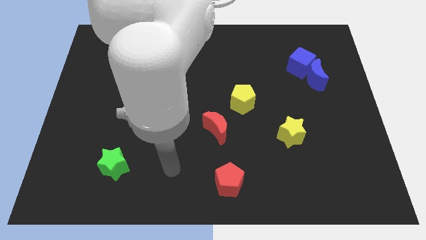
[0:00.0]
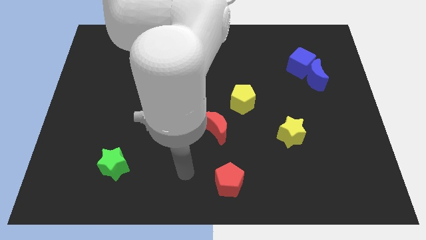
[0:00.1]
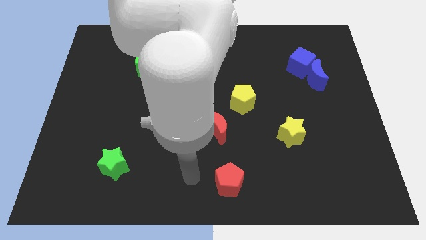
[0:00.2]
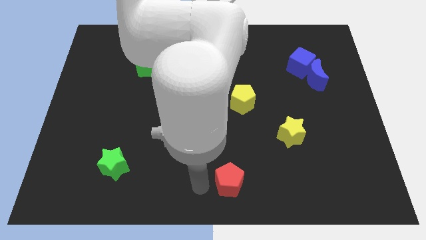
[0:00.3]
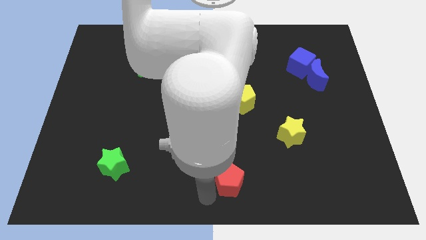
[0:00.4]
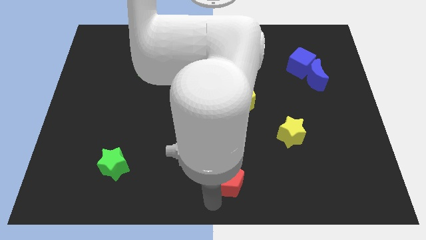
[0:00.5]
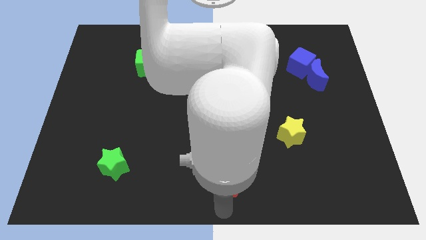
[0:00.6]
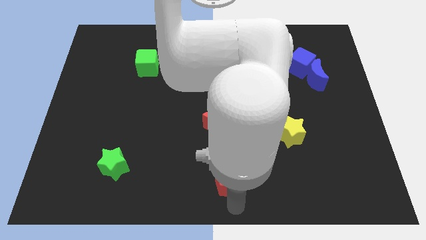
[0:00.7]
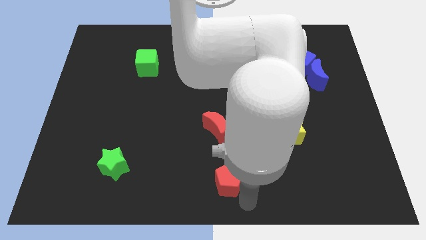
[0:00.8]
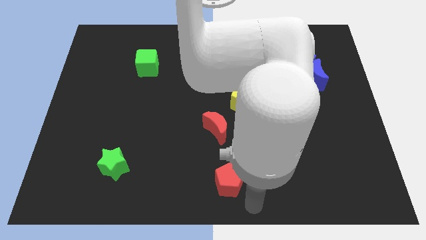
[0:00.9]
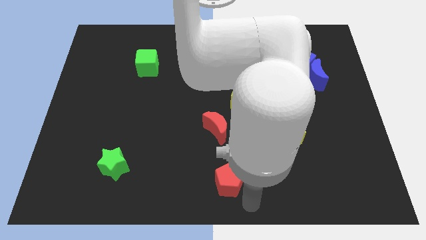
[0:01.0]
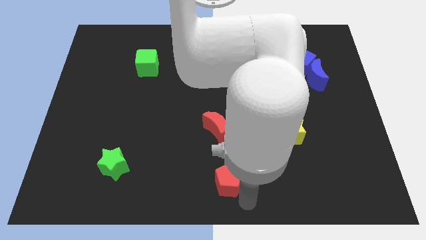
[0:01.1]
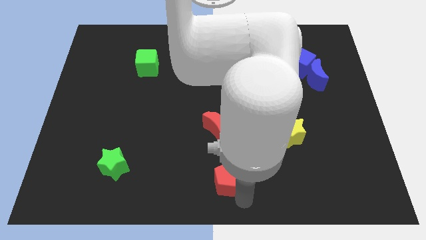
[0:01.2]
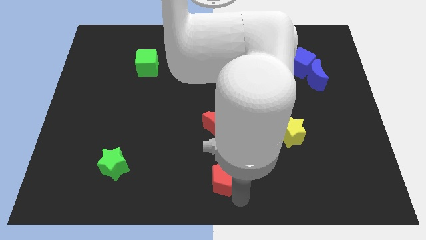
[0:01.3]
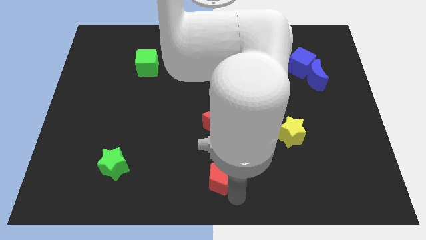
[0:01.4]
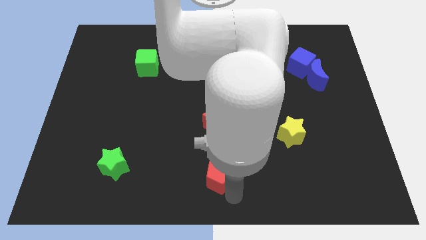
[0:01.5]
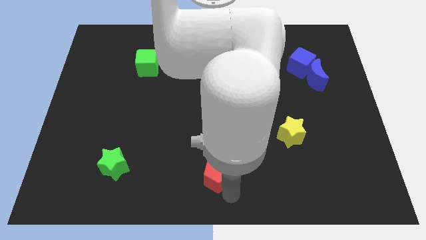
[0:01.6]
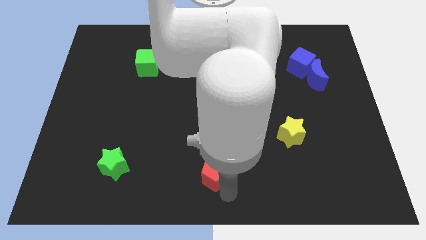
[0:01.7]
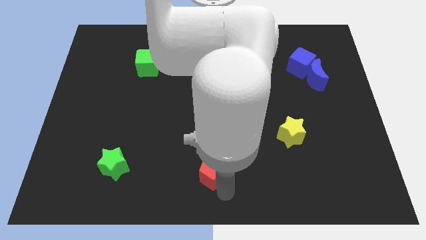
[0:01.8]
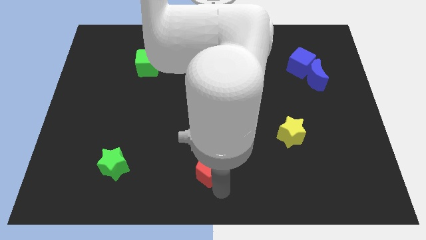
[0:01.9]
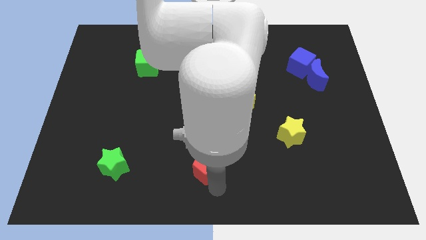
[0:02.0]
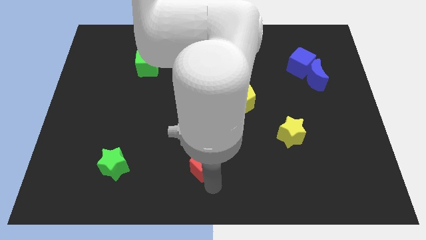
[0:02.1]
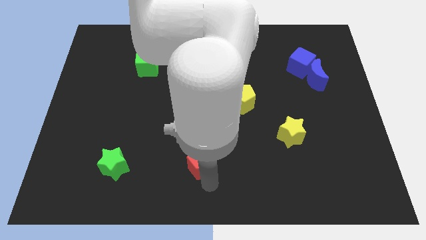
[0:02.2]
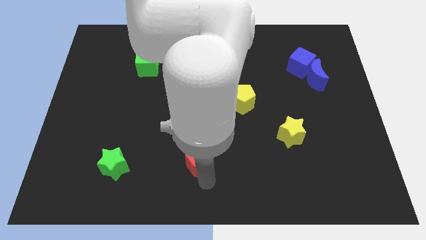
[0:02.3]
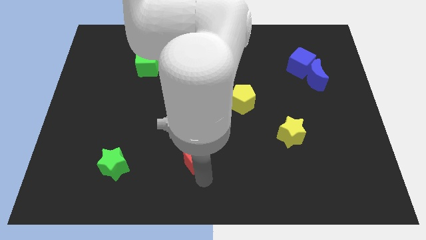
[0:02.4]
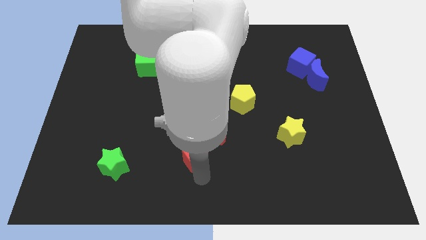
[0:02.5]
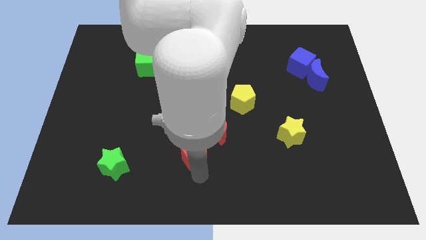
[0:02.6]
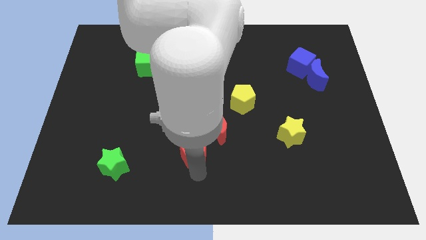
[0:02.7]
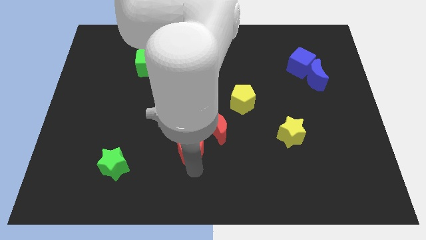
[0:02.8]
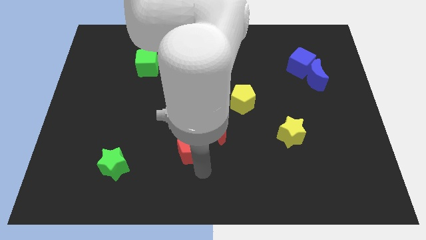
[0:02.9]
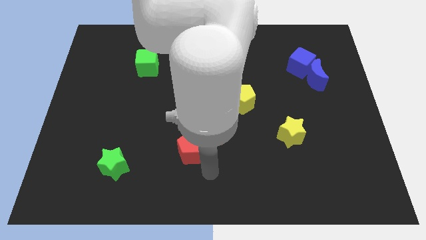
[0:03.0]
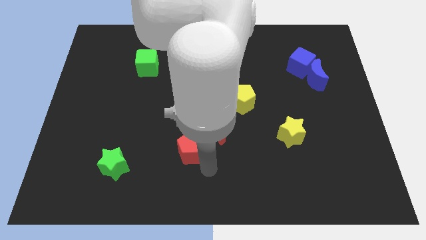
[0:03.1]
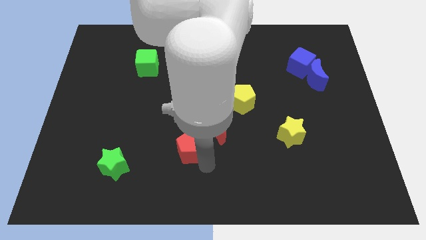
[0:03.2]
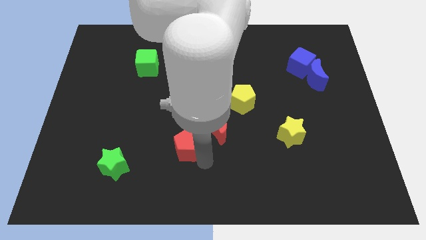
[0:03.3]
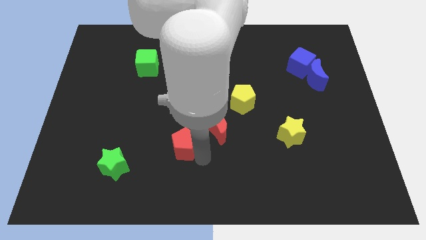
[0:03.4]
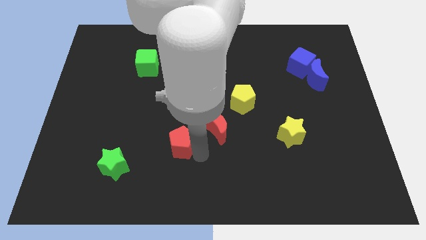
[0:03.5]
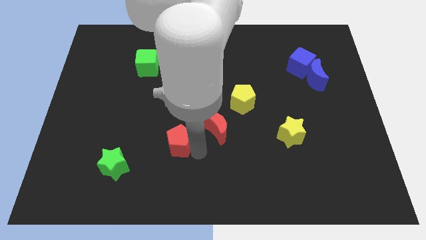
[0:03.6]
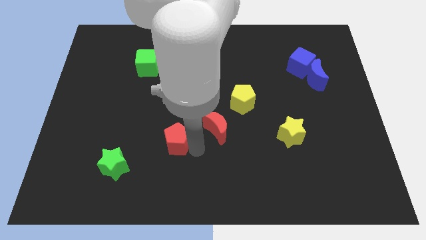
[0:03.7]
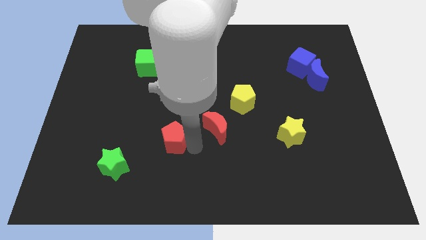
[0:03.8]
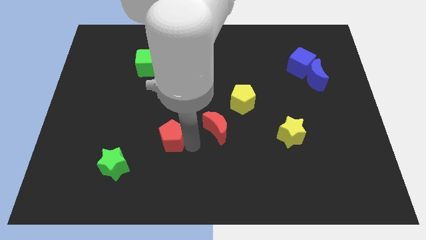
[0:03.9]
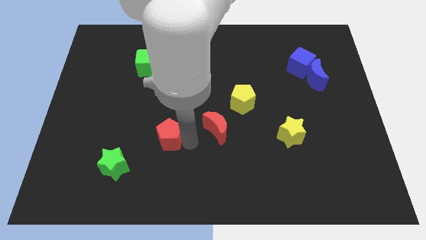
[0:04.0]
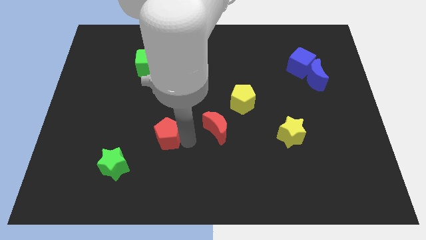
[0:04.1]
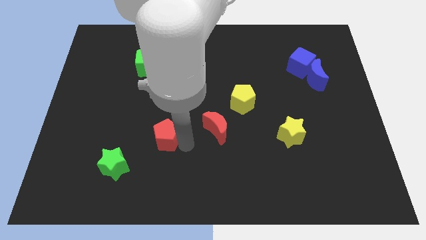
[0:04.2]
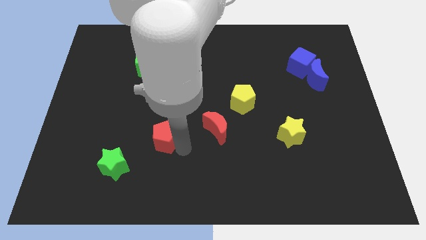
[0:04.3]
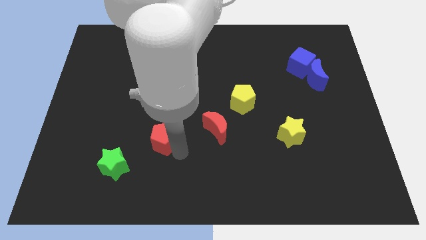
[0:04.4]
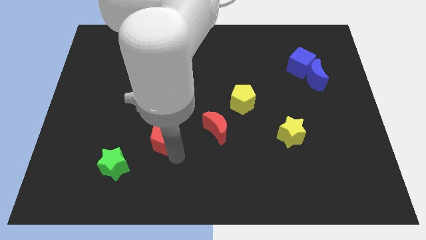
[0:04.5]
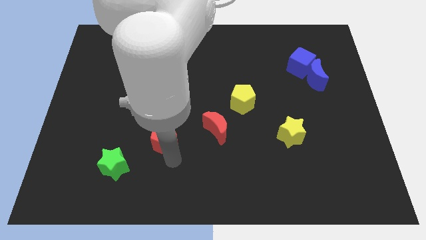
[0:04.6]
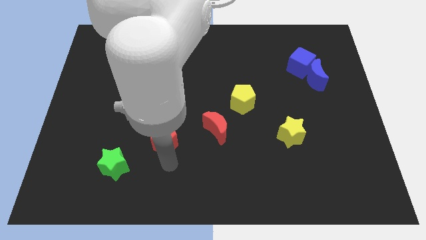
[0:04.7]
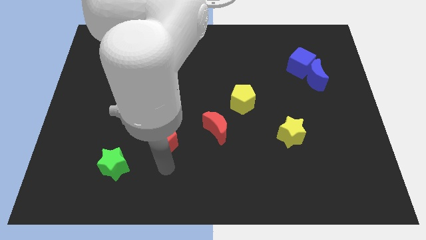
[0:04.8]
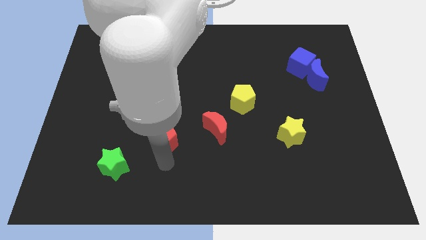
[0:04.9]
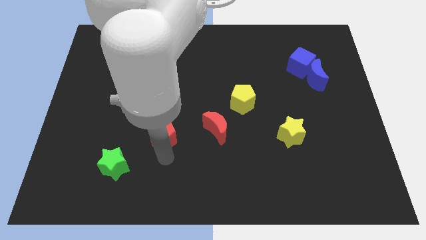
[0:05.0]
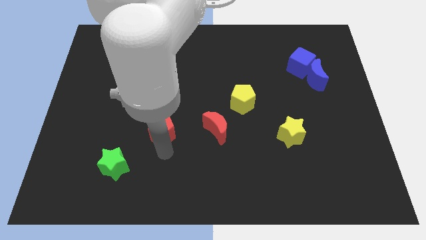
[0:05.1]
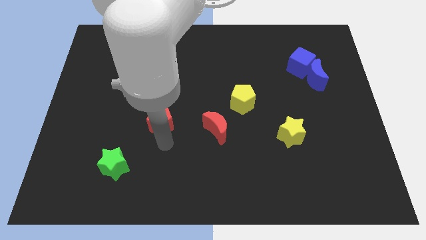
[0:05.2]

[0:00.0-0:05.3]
slide the red pentagon diagonally up and left

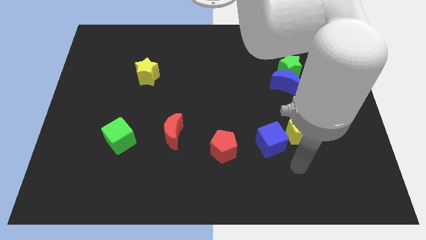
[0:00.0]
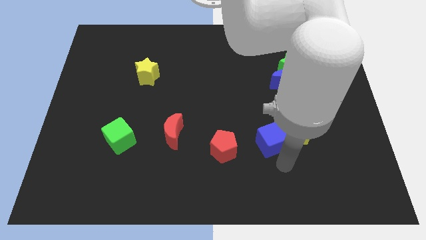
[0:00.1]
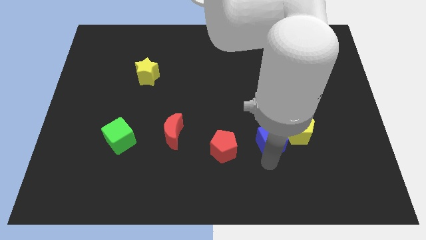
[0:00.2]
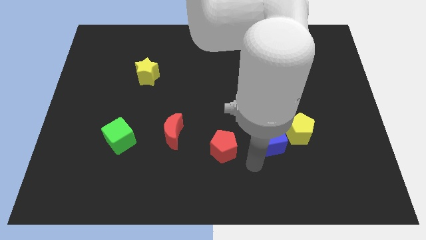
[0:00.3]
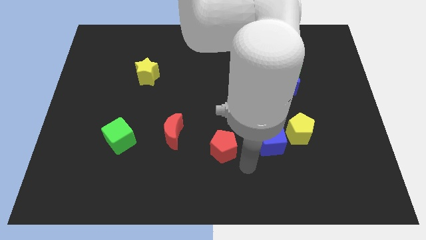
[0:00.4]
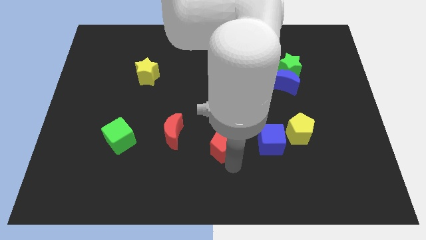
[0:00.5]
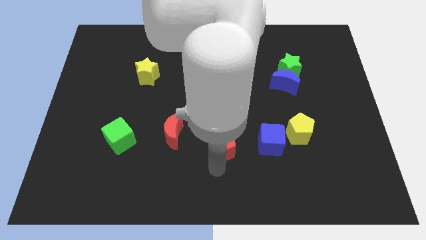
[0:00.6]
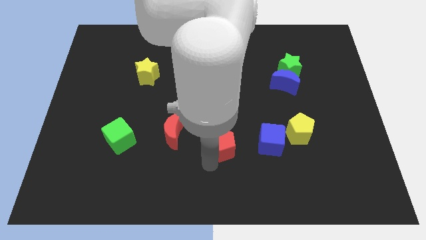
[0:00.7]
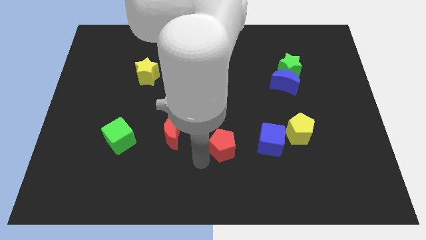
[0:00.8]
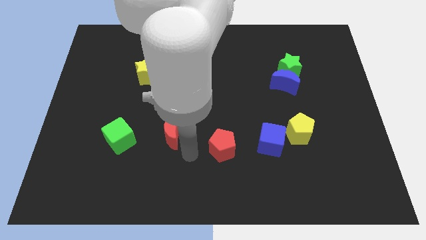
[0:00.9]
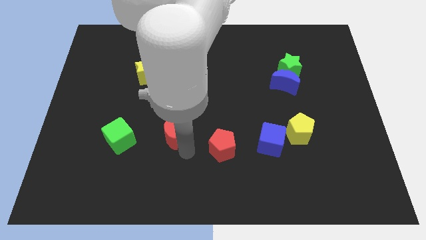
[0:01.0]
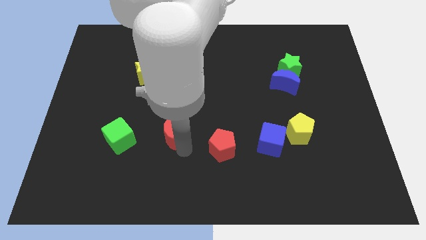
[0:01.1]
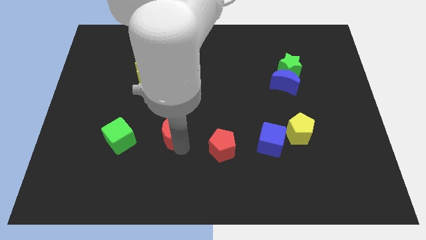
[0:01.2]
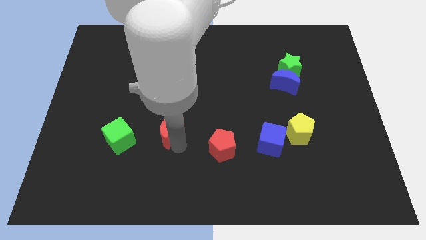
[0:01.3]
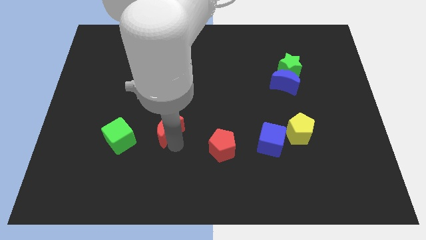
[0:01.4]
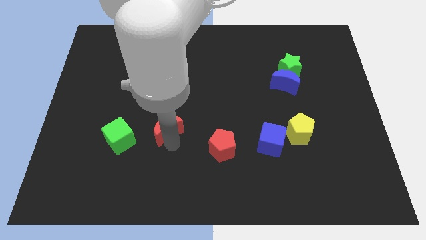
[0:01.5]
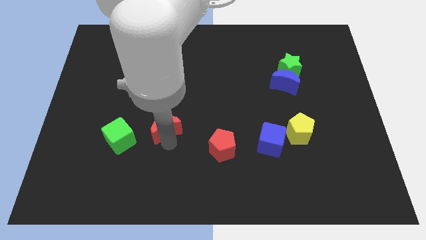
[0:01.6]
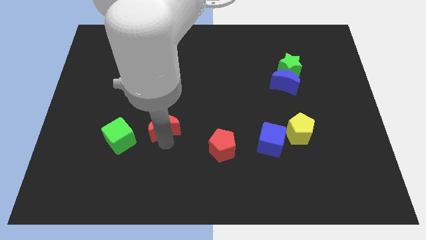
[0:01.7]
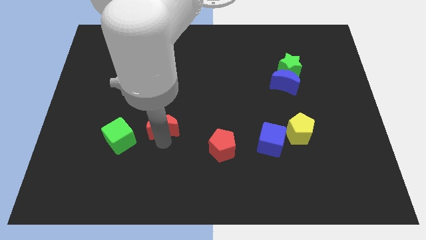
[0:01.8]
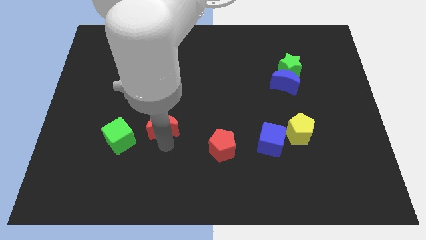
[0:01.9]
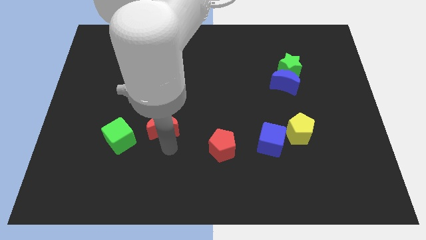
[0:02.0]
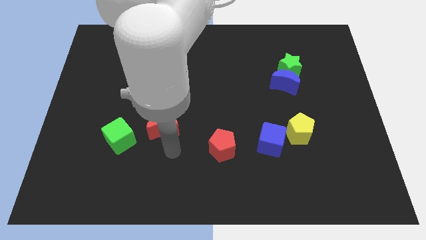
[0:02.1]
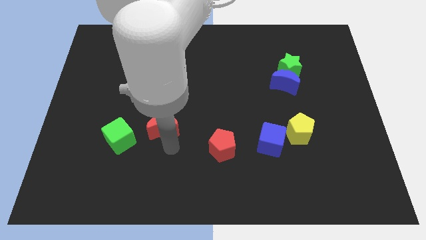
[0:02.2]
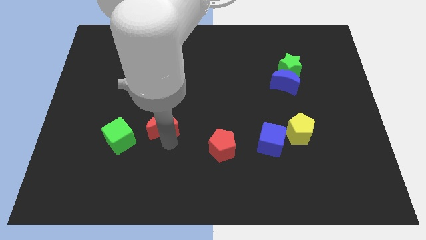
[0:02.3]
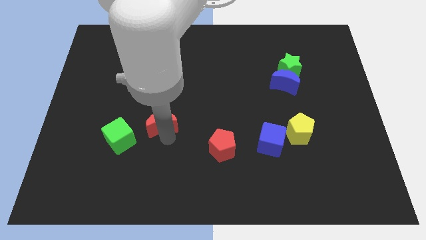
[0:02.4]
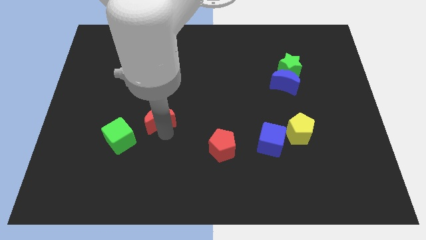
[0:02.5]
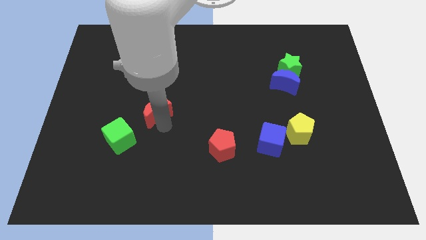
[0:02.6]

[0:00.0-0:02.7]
slightly slide the red moon up and left diagonally

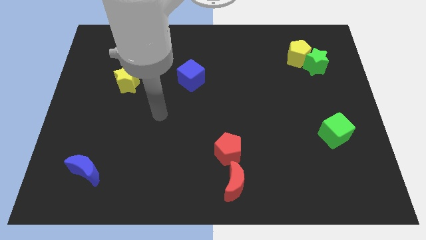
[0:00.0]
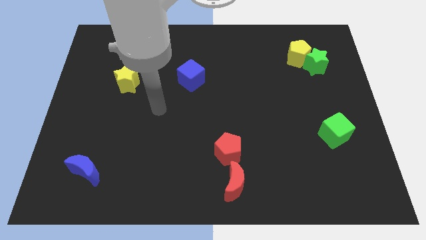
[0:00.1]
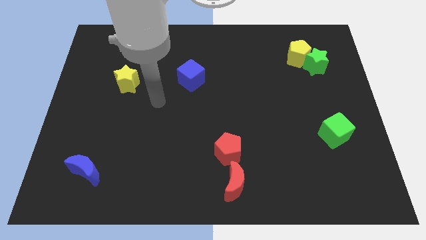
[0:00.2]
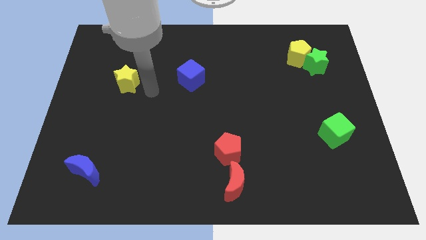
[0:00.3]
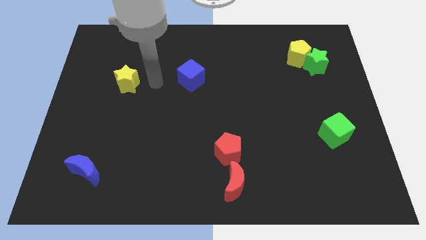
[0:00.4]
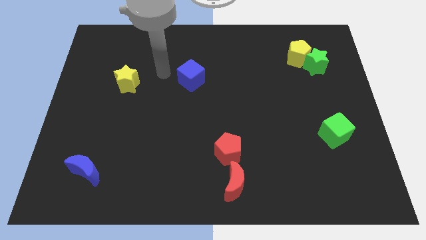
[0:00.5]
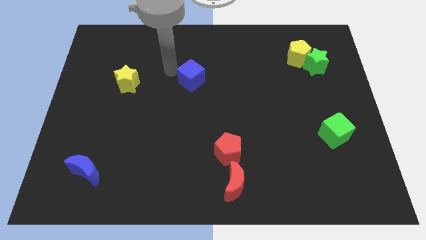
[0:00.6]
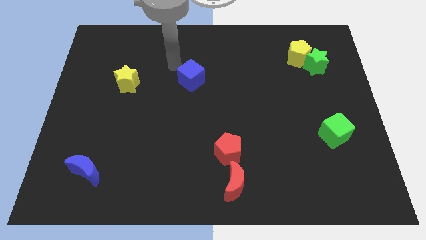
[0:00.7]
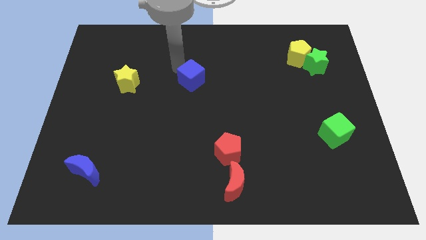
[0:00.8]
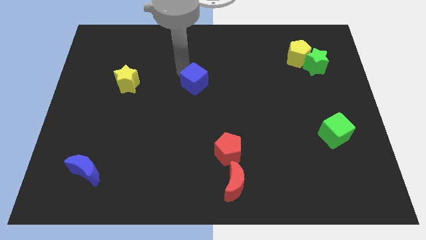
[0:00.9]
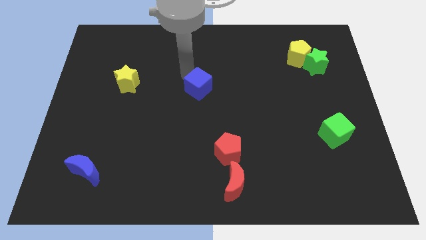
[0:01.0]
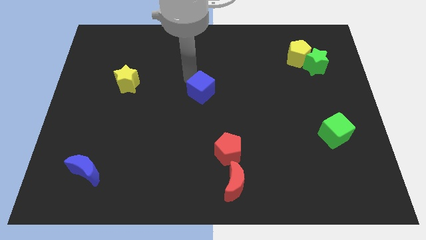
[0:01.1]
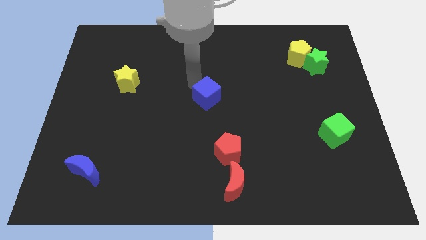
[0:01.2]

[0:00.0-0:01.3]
move the blue cube a little bit down and to the right
